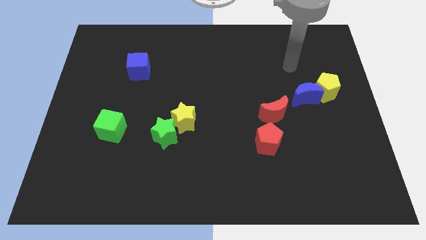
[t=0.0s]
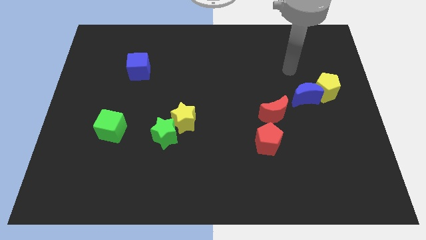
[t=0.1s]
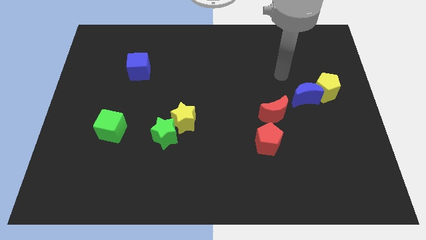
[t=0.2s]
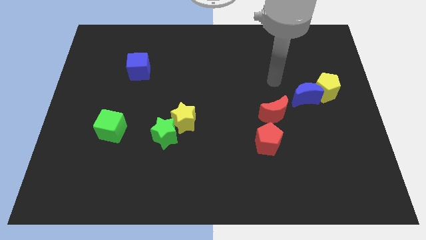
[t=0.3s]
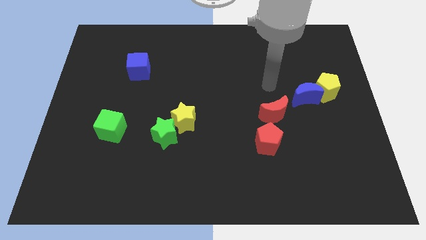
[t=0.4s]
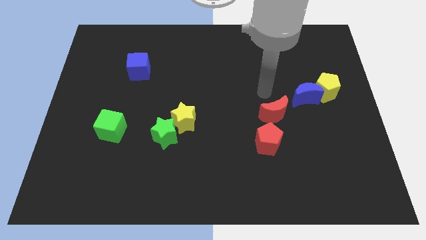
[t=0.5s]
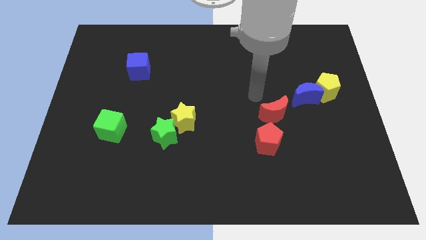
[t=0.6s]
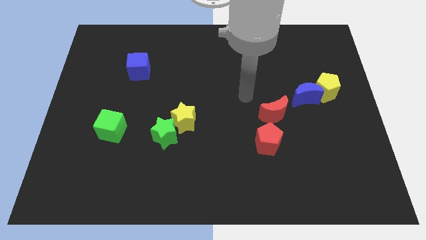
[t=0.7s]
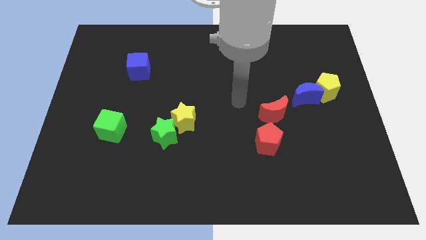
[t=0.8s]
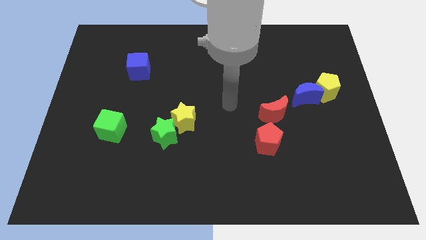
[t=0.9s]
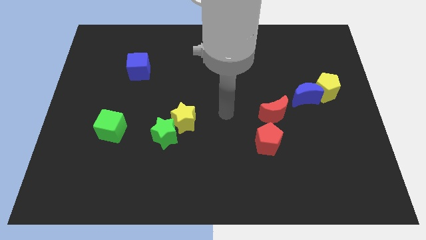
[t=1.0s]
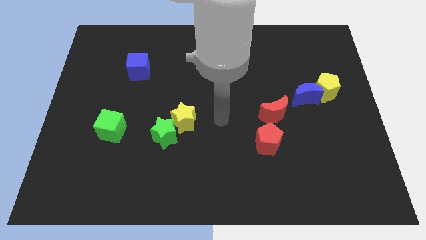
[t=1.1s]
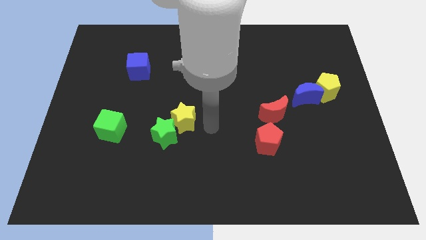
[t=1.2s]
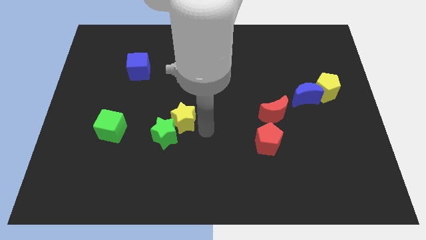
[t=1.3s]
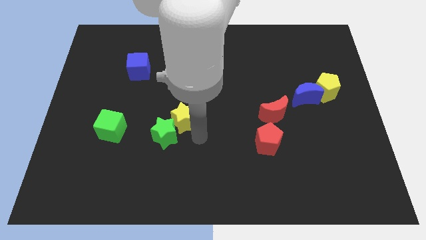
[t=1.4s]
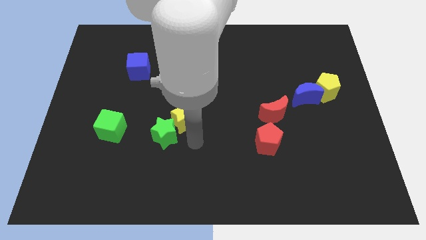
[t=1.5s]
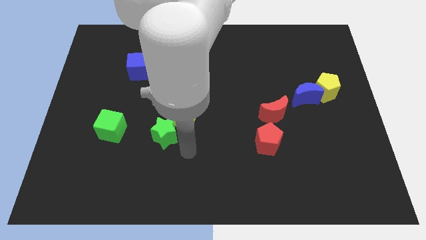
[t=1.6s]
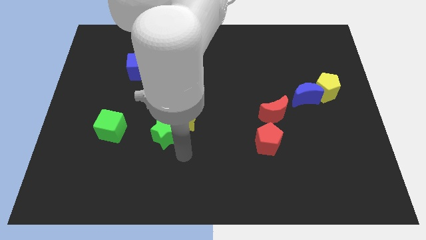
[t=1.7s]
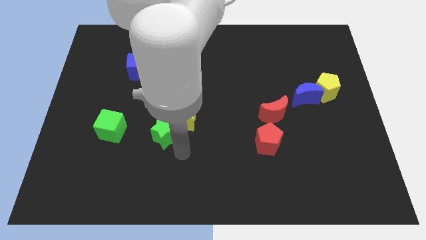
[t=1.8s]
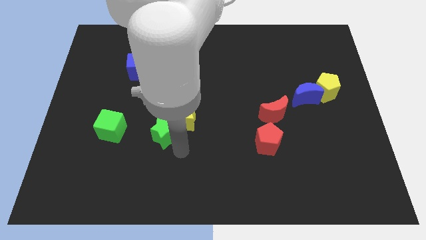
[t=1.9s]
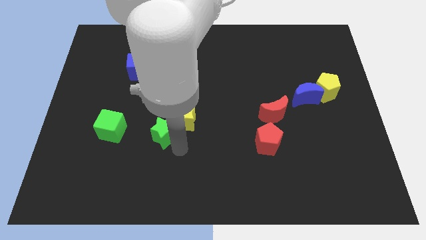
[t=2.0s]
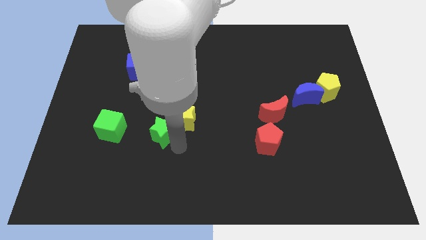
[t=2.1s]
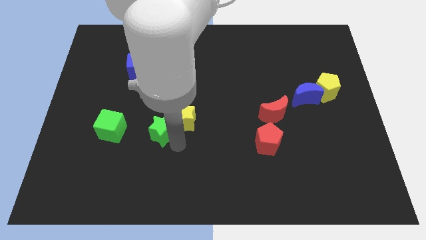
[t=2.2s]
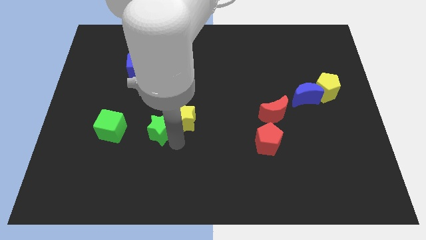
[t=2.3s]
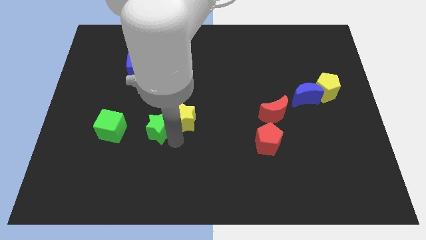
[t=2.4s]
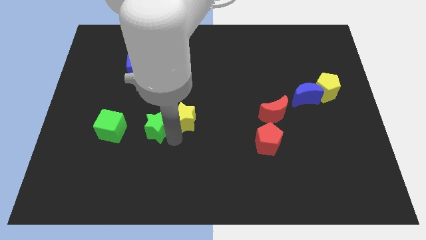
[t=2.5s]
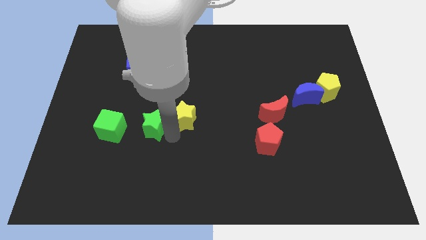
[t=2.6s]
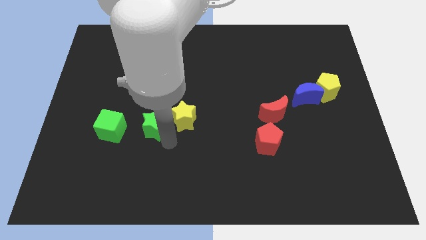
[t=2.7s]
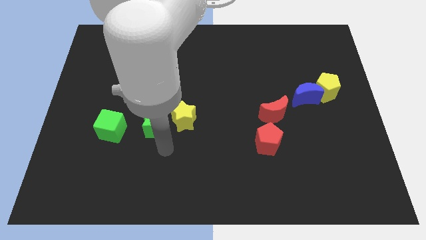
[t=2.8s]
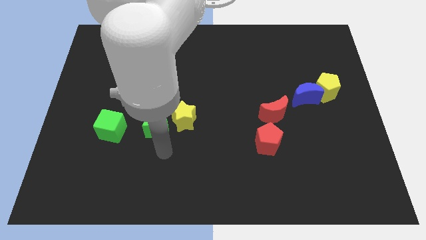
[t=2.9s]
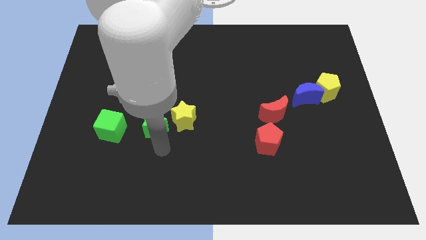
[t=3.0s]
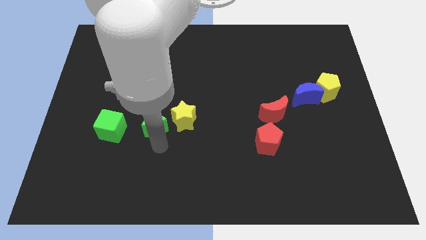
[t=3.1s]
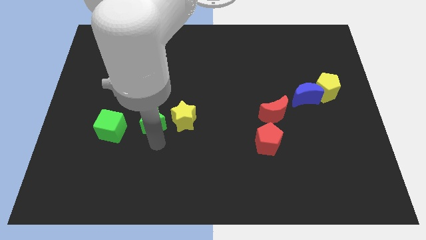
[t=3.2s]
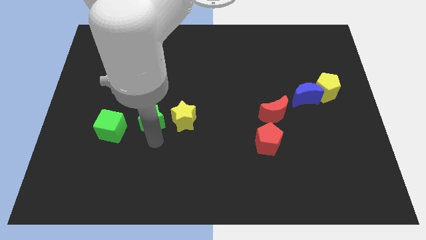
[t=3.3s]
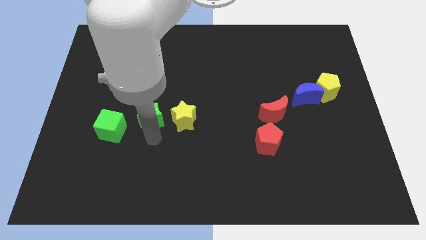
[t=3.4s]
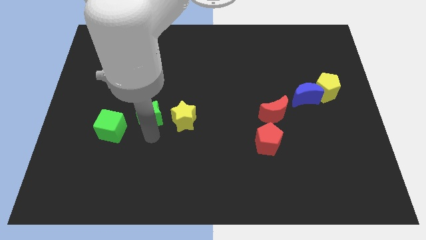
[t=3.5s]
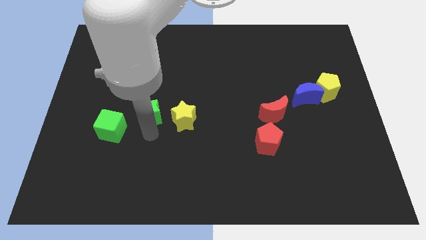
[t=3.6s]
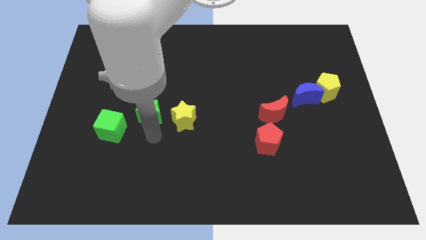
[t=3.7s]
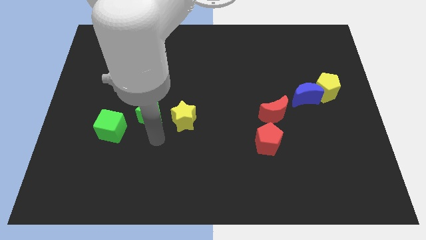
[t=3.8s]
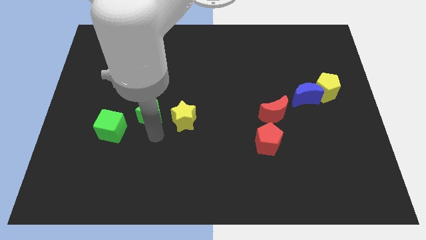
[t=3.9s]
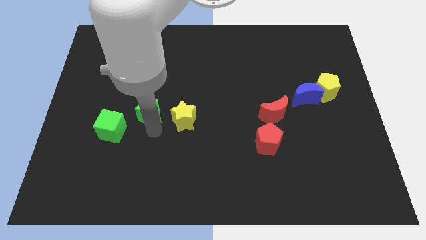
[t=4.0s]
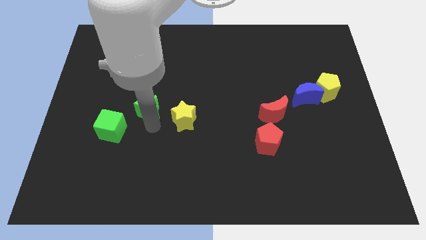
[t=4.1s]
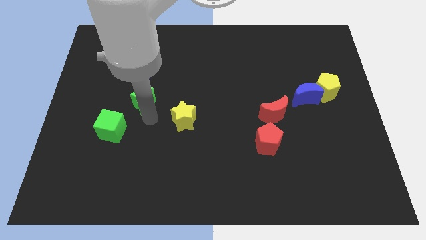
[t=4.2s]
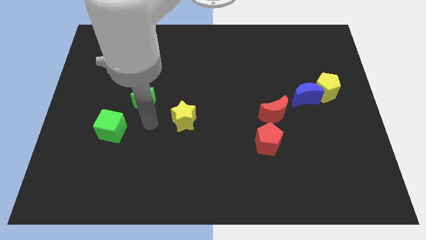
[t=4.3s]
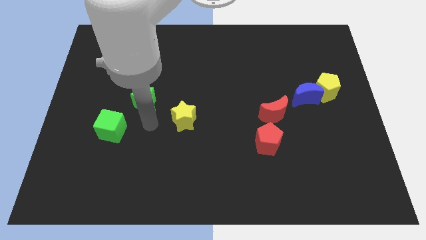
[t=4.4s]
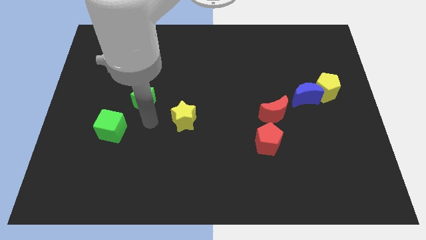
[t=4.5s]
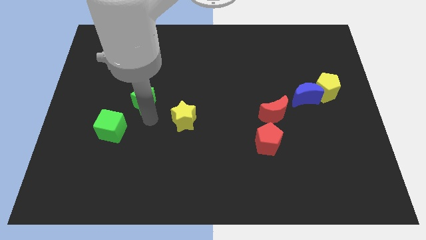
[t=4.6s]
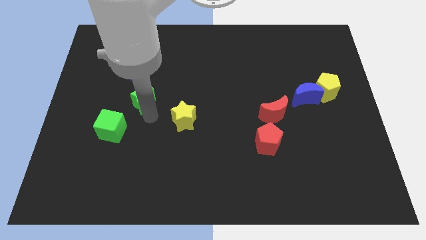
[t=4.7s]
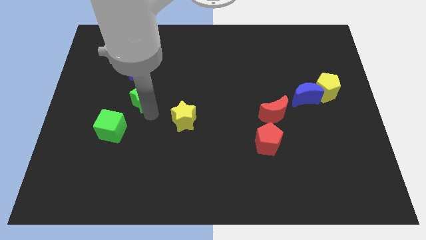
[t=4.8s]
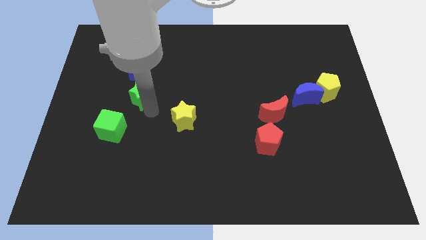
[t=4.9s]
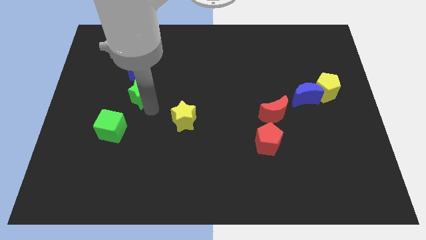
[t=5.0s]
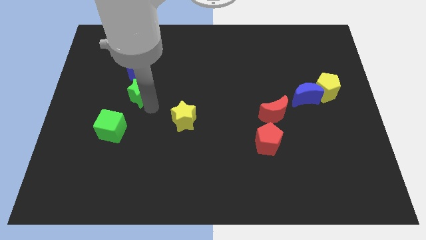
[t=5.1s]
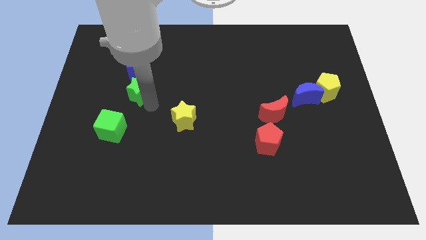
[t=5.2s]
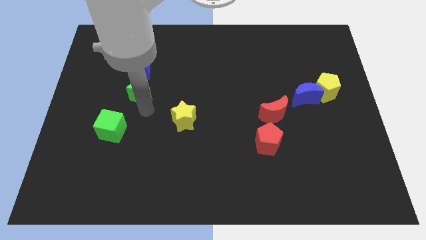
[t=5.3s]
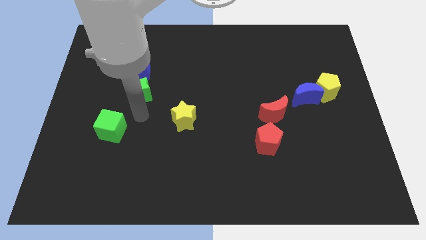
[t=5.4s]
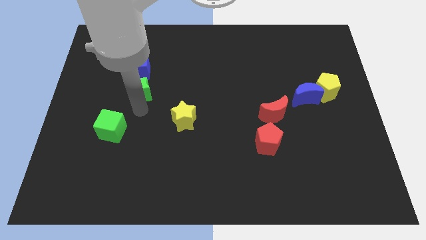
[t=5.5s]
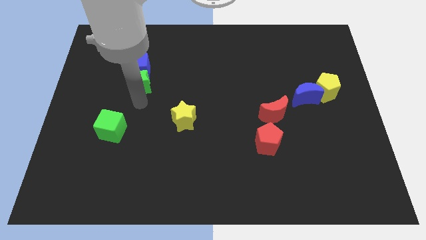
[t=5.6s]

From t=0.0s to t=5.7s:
move the green star next to the blue cube

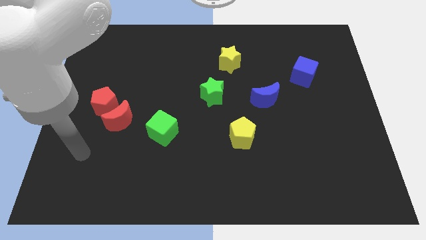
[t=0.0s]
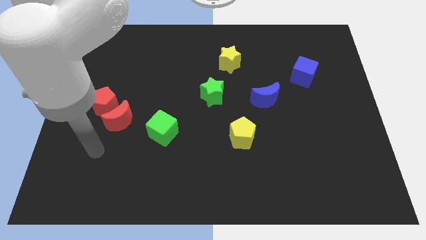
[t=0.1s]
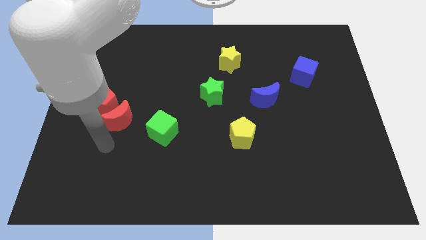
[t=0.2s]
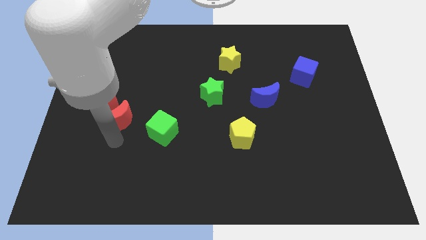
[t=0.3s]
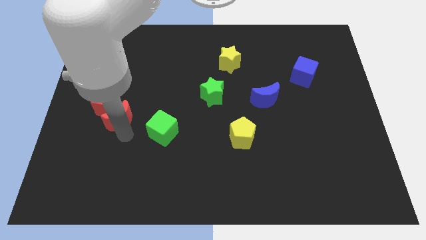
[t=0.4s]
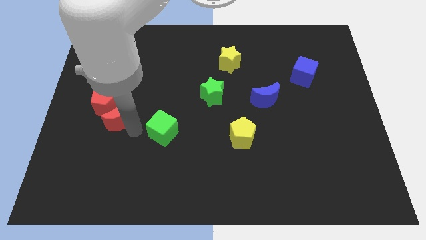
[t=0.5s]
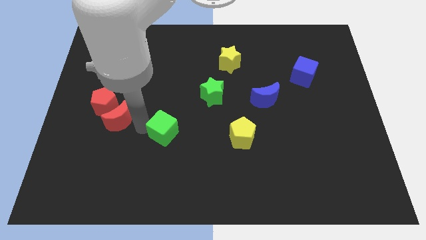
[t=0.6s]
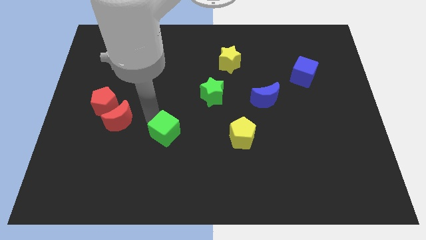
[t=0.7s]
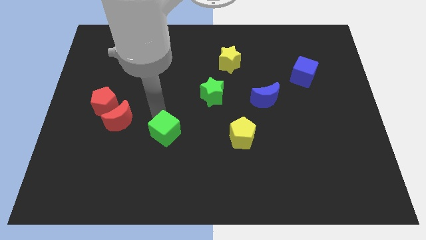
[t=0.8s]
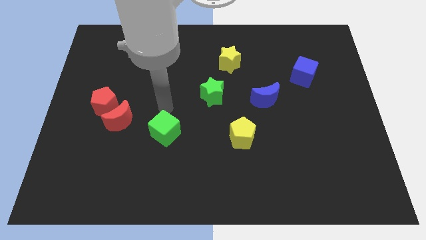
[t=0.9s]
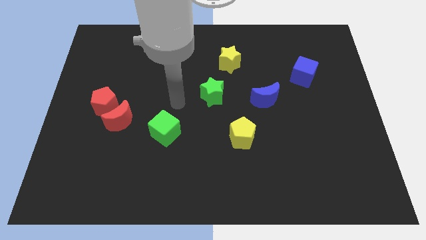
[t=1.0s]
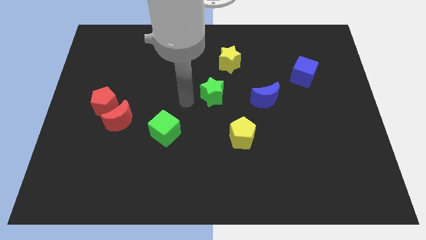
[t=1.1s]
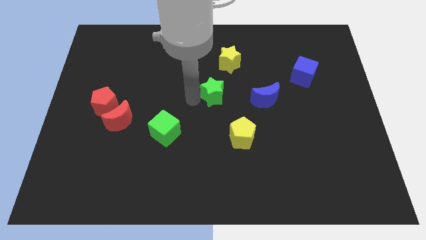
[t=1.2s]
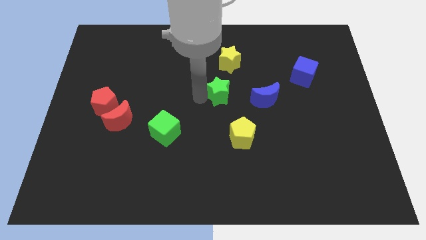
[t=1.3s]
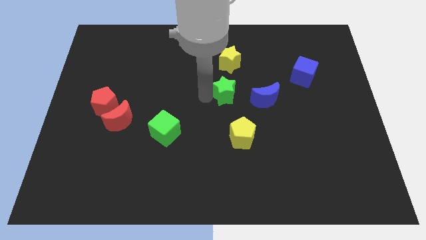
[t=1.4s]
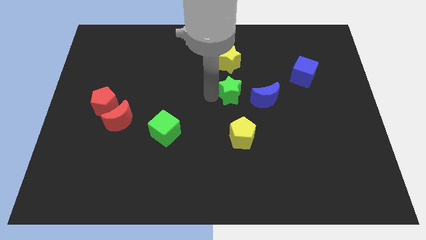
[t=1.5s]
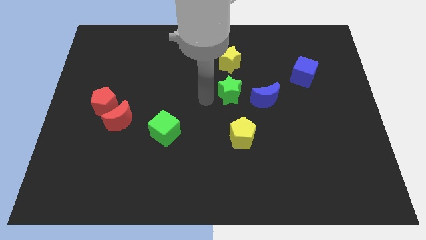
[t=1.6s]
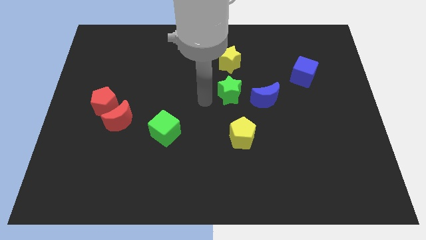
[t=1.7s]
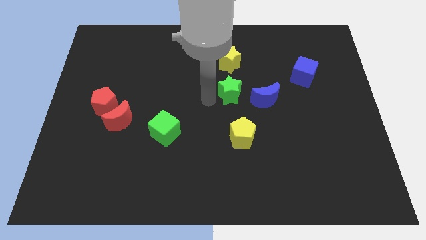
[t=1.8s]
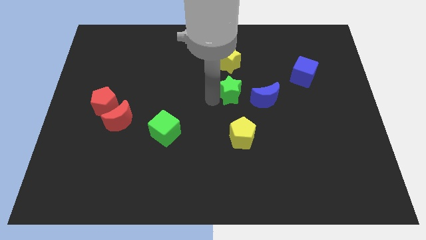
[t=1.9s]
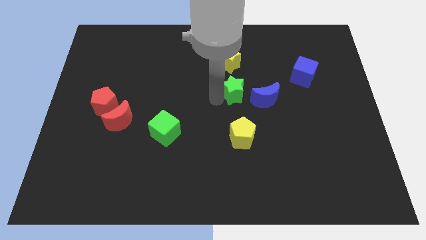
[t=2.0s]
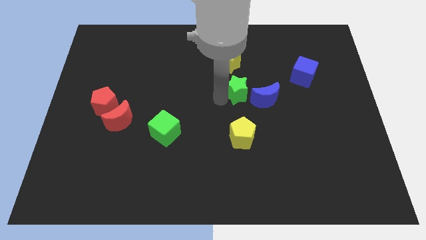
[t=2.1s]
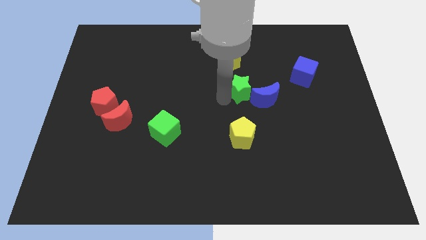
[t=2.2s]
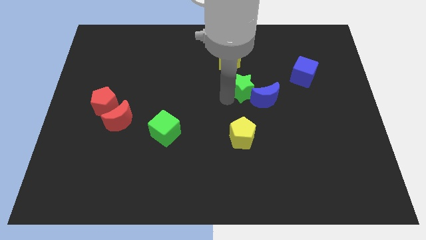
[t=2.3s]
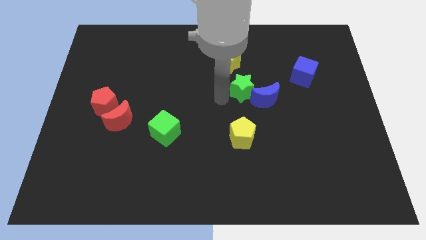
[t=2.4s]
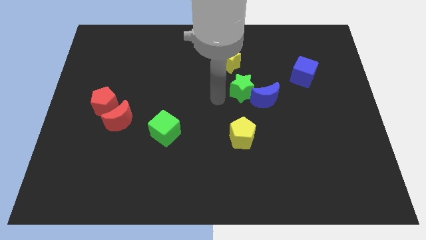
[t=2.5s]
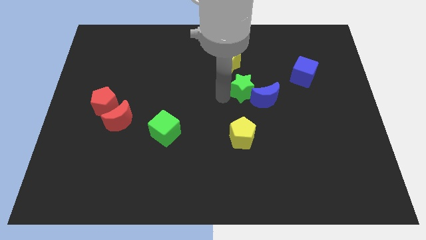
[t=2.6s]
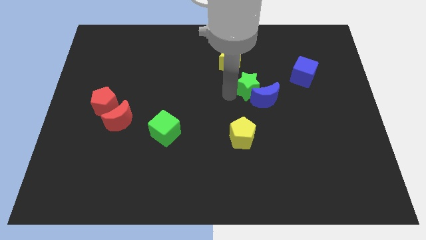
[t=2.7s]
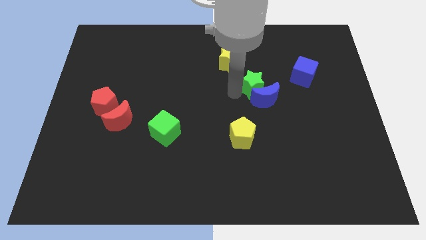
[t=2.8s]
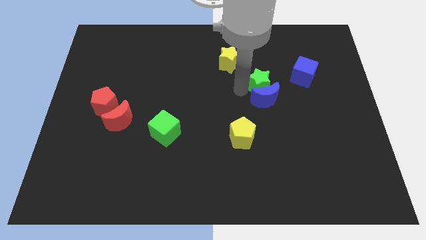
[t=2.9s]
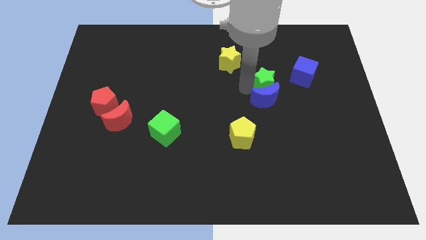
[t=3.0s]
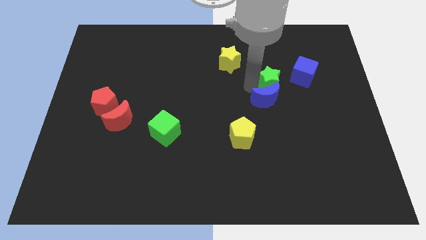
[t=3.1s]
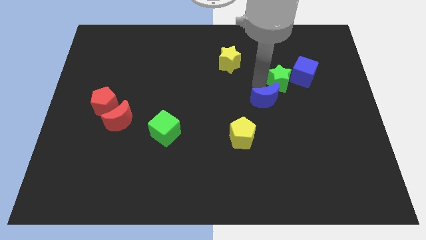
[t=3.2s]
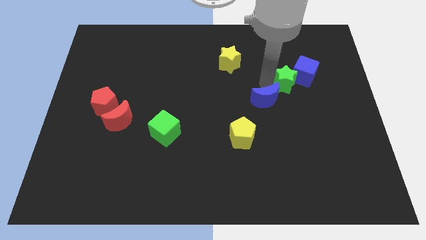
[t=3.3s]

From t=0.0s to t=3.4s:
put the green star close to the blue cube
